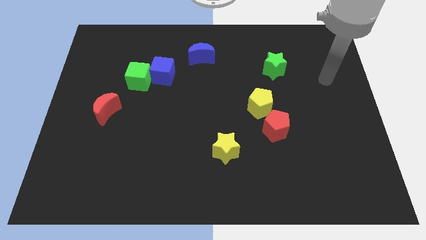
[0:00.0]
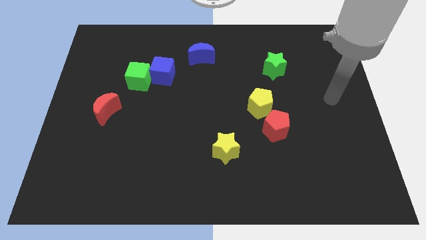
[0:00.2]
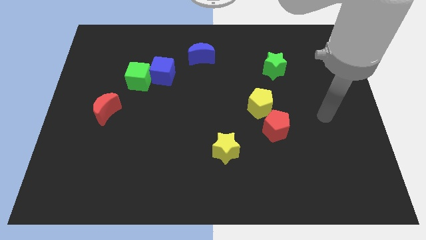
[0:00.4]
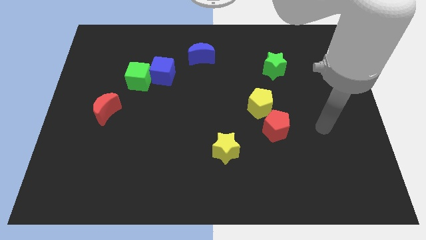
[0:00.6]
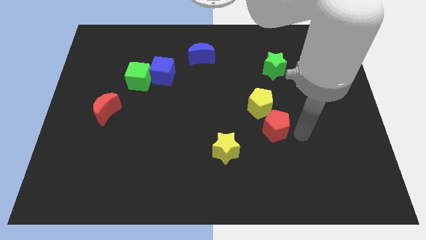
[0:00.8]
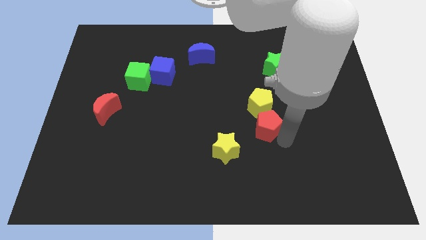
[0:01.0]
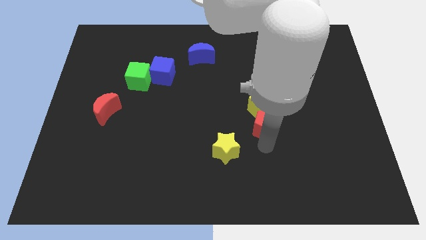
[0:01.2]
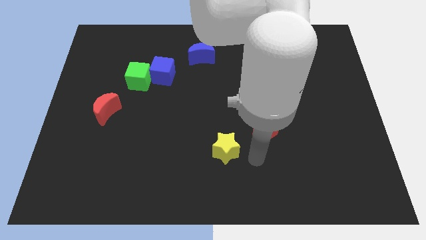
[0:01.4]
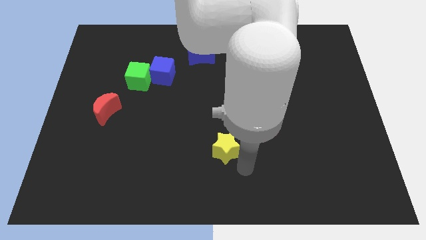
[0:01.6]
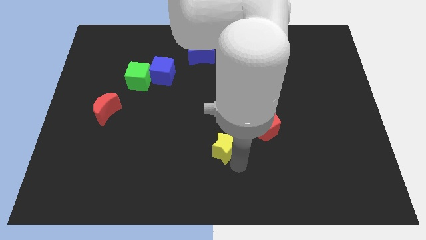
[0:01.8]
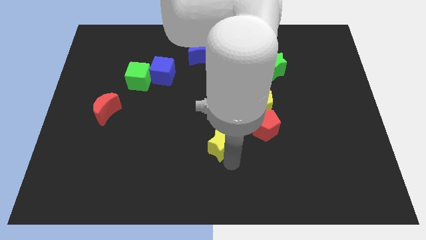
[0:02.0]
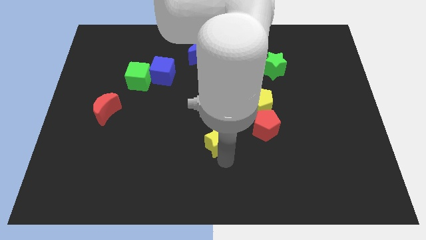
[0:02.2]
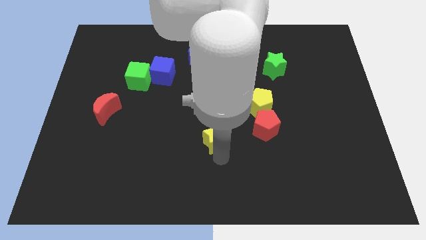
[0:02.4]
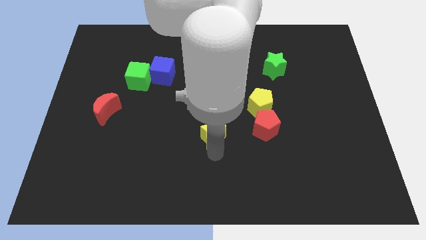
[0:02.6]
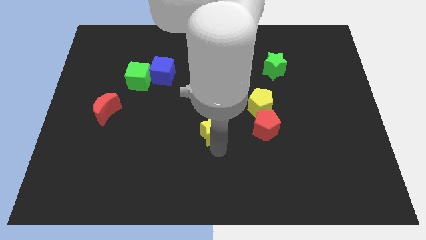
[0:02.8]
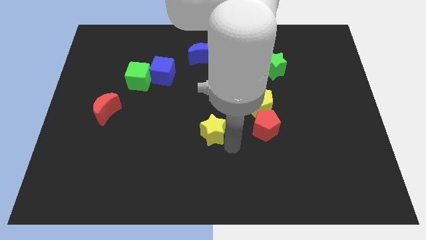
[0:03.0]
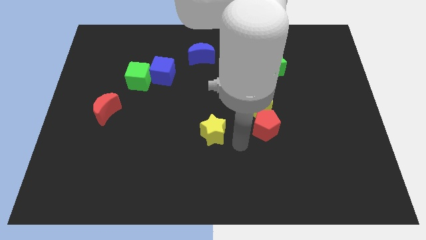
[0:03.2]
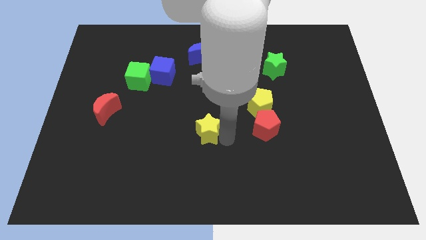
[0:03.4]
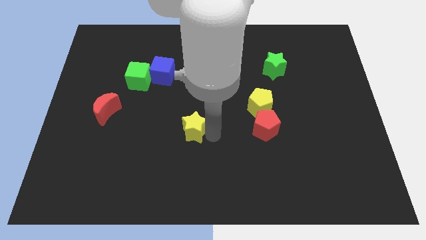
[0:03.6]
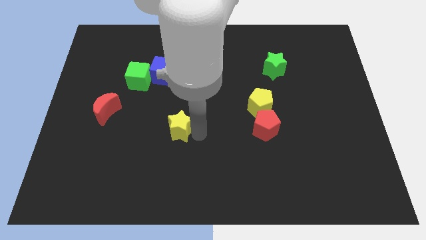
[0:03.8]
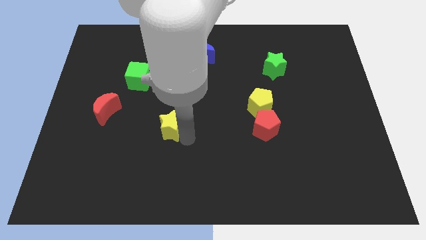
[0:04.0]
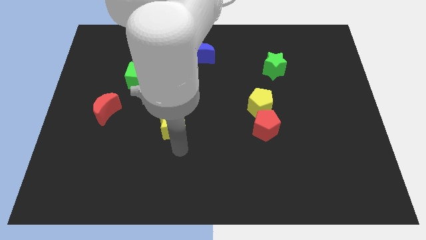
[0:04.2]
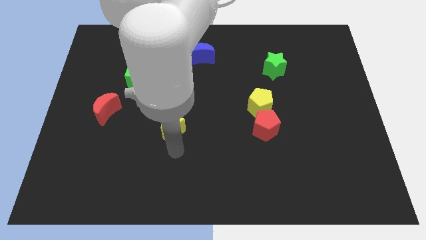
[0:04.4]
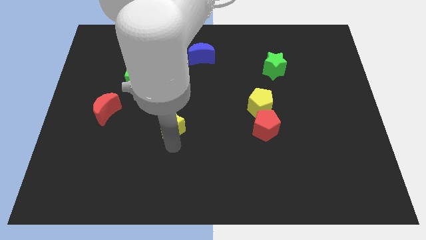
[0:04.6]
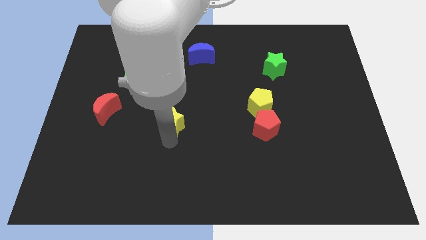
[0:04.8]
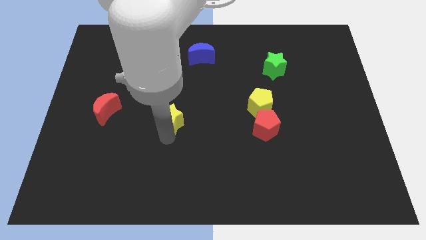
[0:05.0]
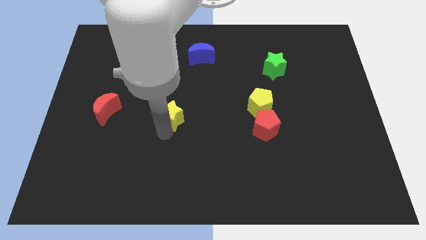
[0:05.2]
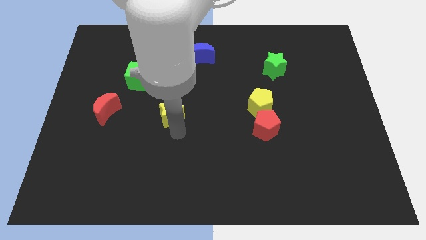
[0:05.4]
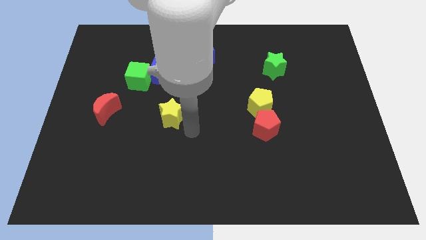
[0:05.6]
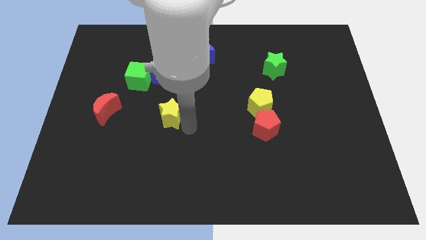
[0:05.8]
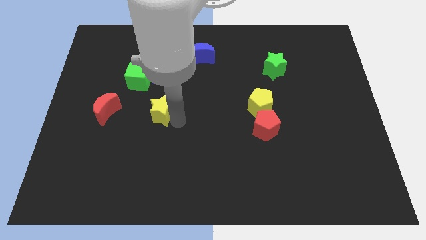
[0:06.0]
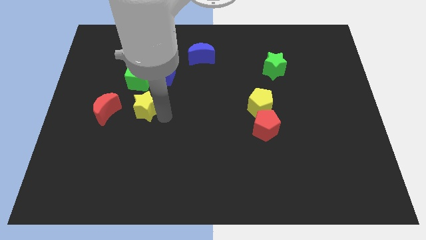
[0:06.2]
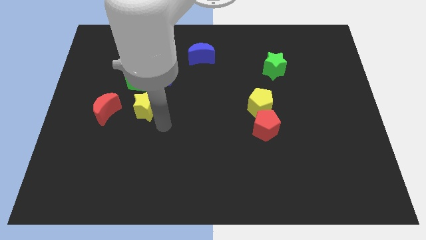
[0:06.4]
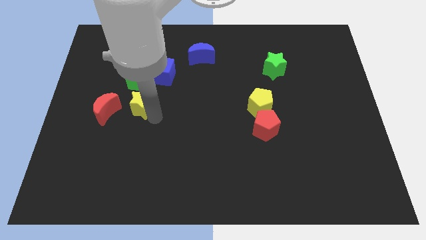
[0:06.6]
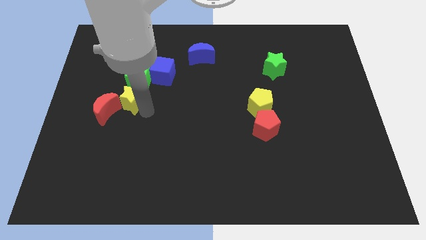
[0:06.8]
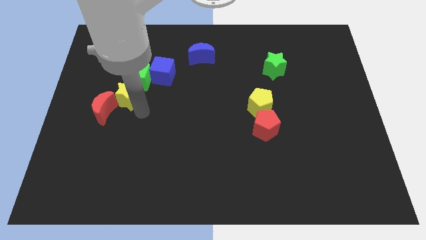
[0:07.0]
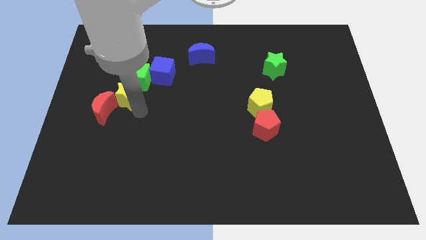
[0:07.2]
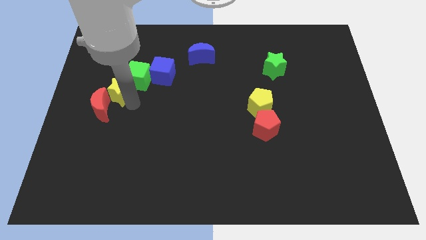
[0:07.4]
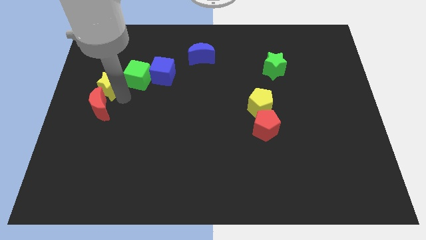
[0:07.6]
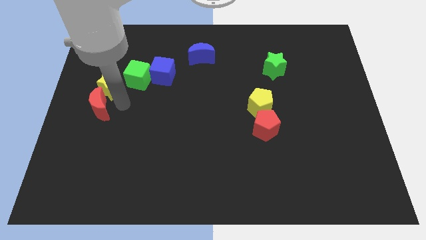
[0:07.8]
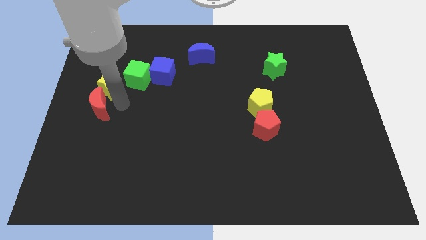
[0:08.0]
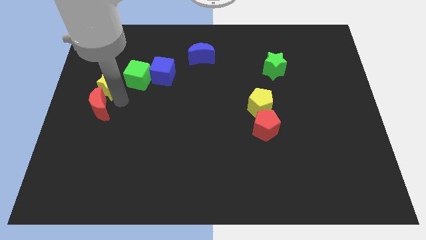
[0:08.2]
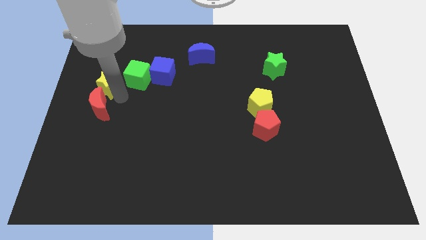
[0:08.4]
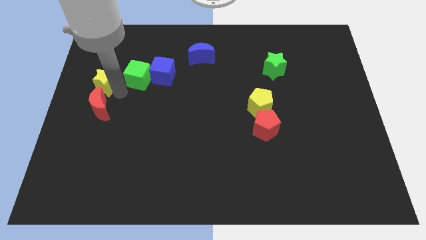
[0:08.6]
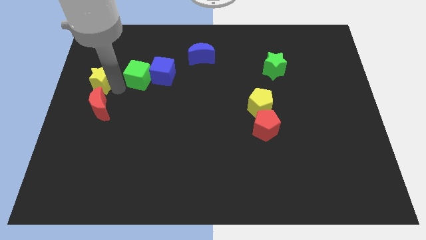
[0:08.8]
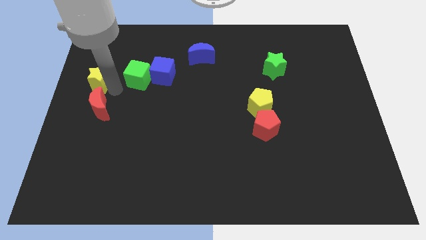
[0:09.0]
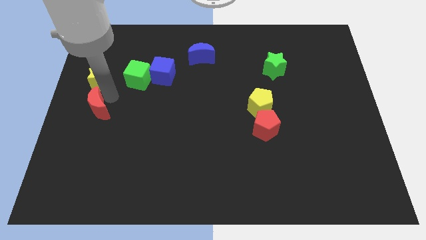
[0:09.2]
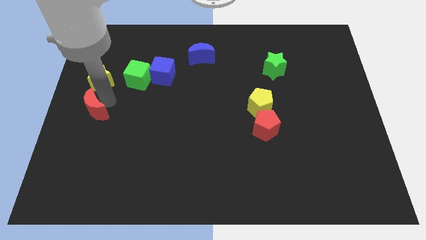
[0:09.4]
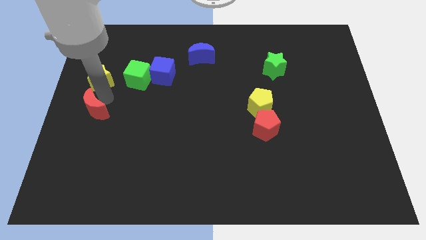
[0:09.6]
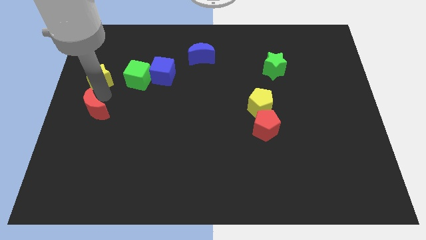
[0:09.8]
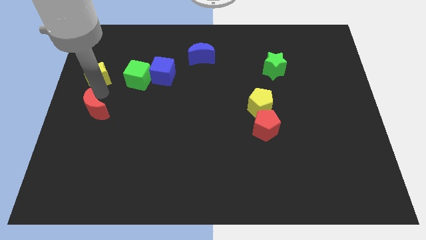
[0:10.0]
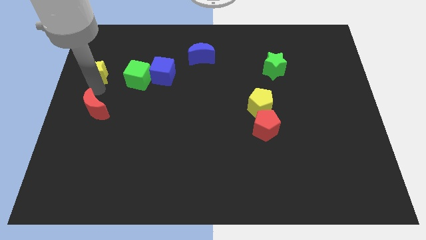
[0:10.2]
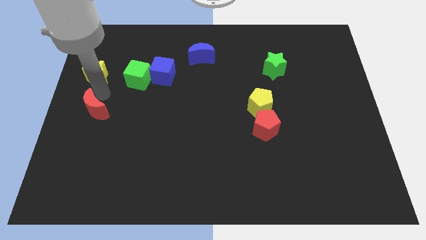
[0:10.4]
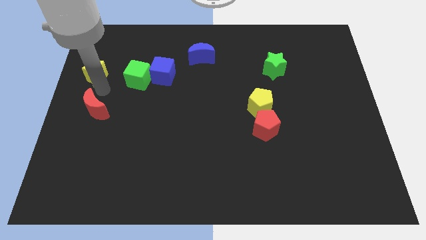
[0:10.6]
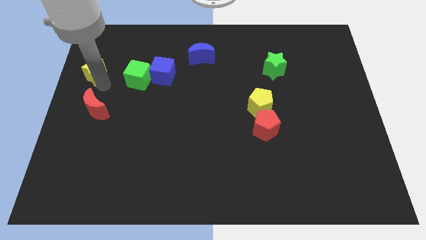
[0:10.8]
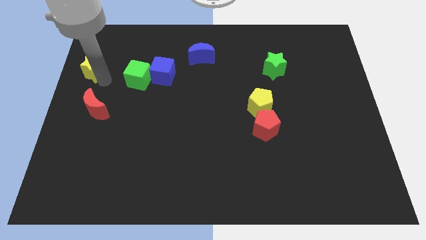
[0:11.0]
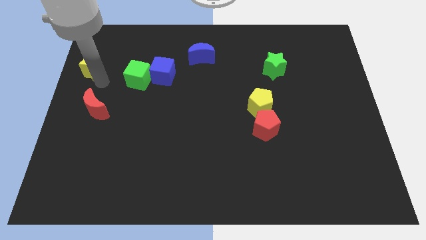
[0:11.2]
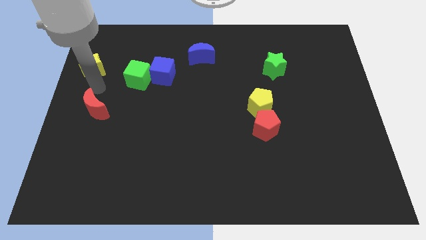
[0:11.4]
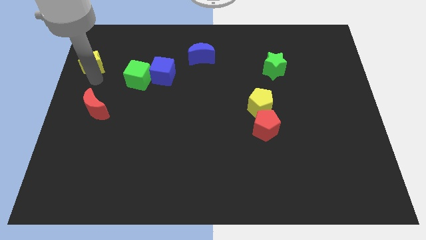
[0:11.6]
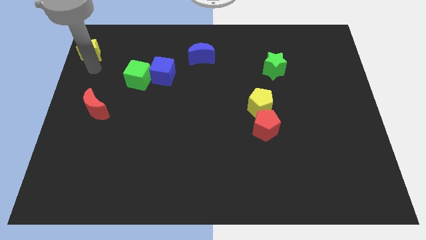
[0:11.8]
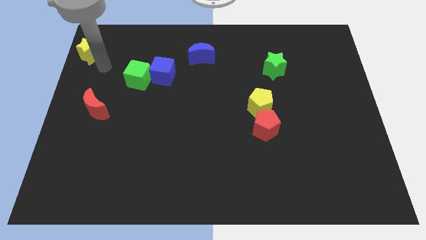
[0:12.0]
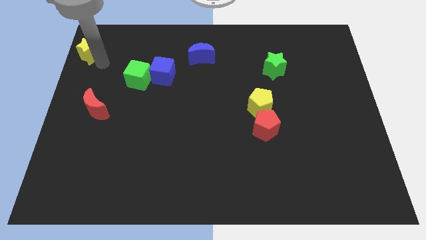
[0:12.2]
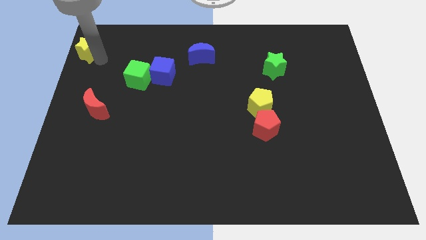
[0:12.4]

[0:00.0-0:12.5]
put the yellow star to the upper left corner

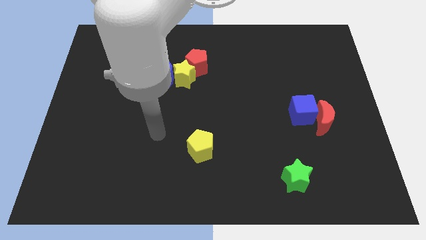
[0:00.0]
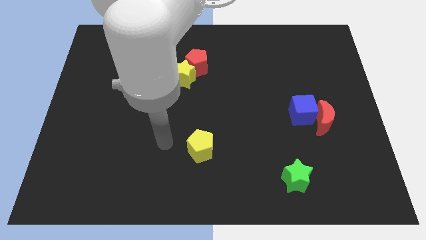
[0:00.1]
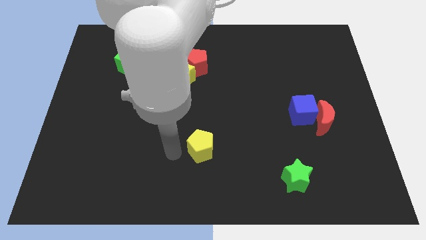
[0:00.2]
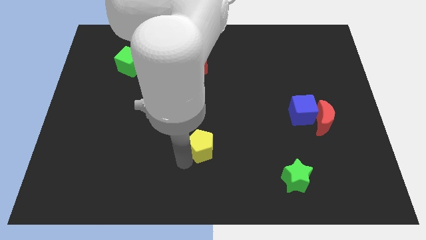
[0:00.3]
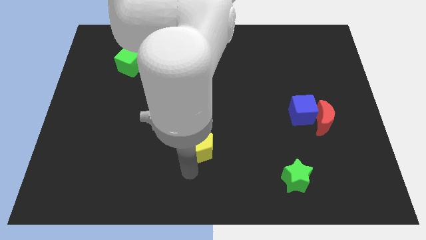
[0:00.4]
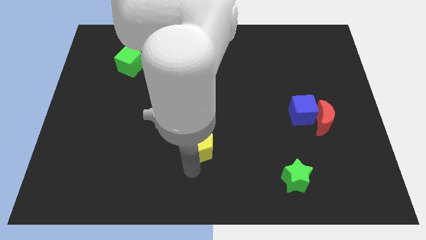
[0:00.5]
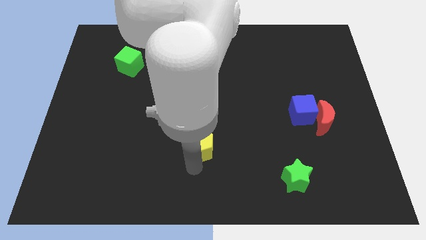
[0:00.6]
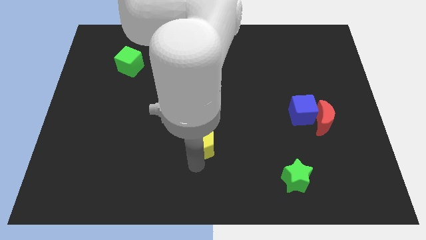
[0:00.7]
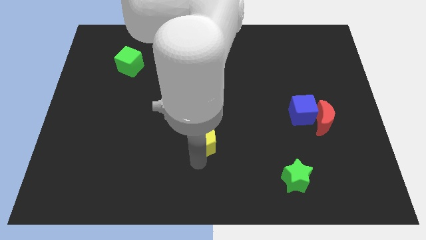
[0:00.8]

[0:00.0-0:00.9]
slide the yellow pentagon to the middle of the board
